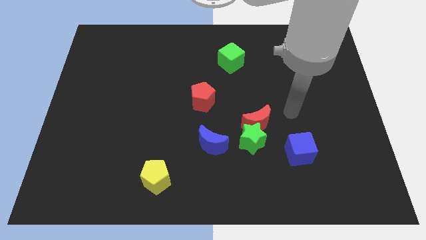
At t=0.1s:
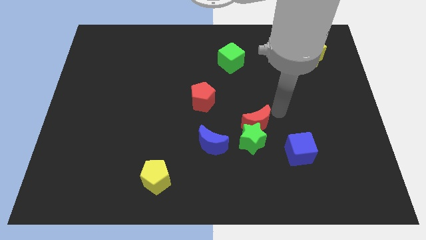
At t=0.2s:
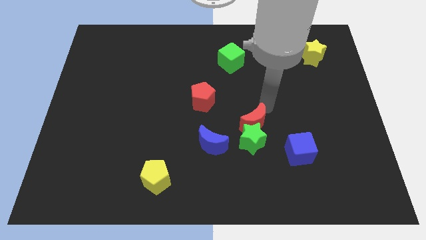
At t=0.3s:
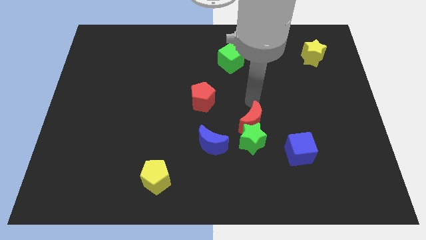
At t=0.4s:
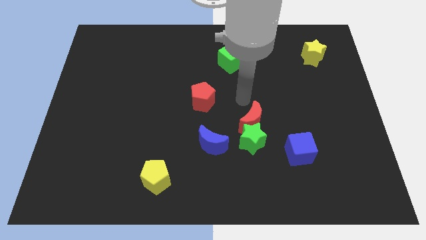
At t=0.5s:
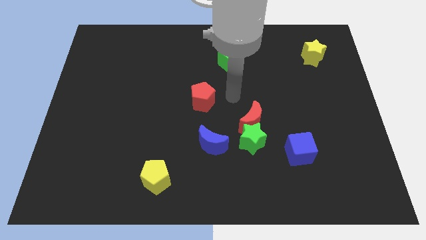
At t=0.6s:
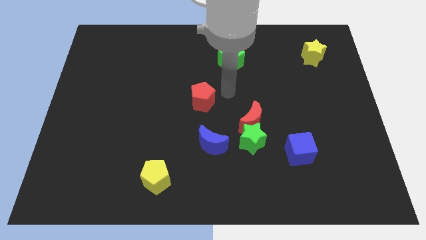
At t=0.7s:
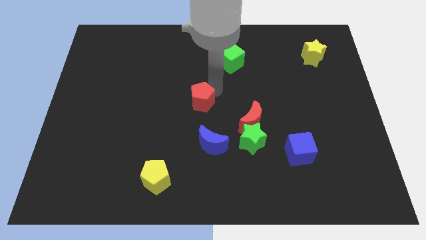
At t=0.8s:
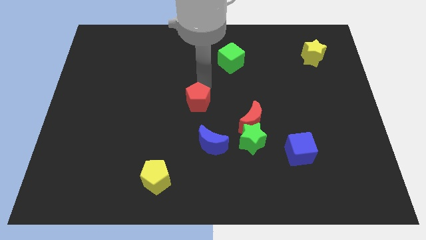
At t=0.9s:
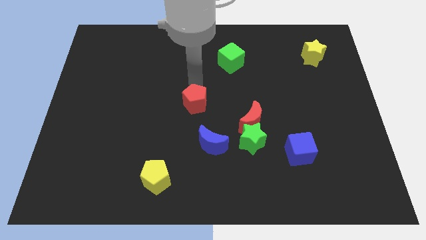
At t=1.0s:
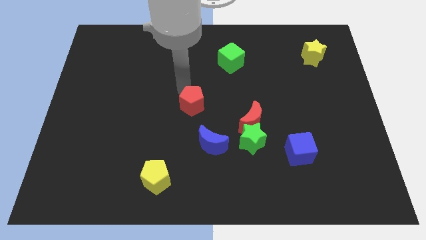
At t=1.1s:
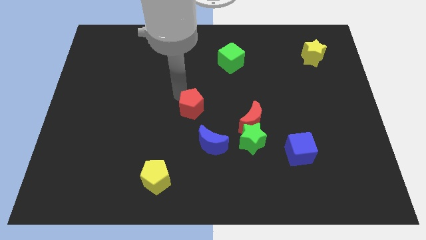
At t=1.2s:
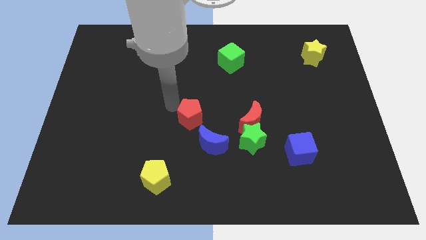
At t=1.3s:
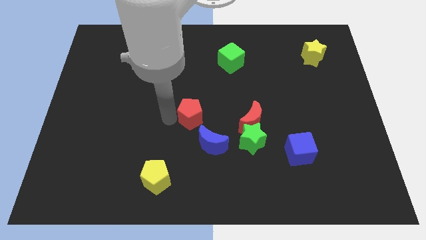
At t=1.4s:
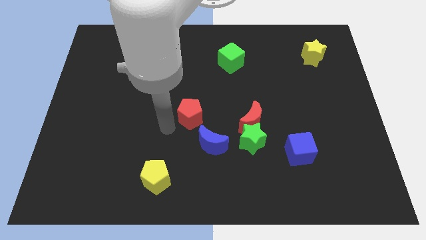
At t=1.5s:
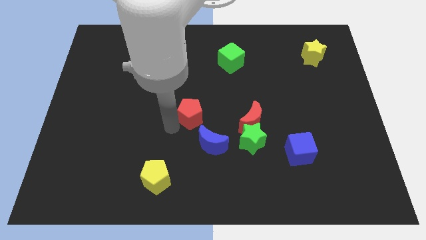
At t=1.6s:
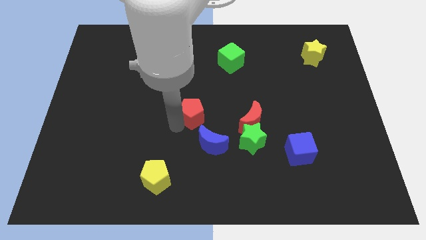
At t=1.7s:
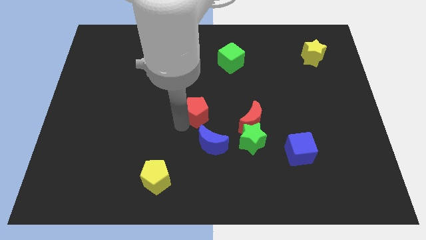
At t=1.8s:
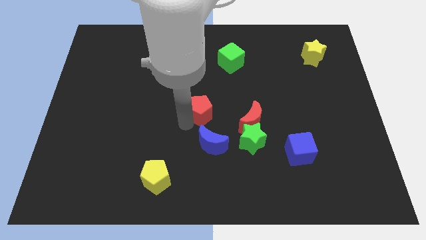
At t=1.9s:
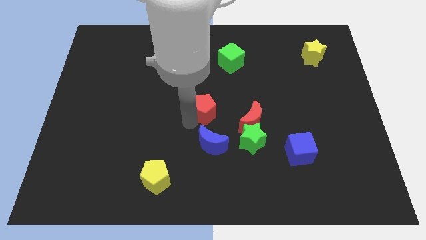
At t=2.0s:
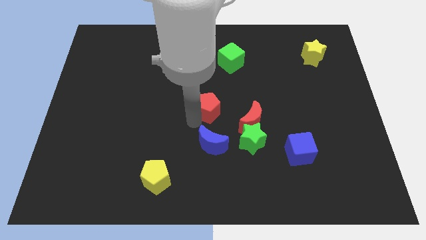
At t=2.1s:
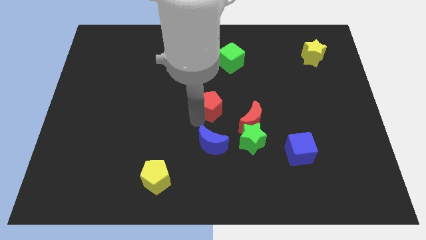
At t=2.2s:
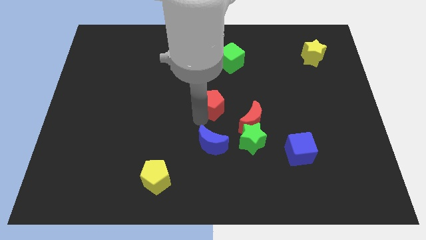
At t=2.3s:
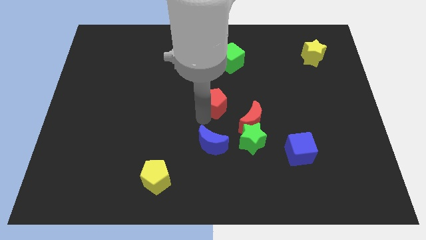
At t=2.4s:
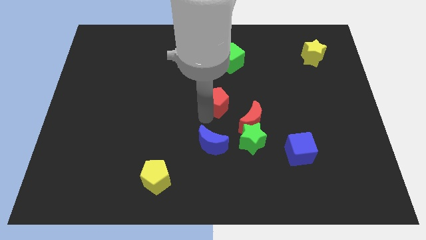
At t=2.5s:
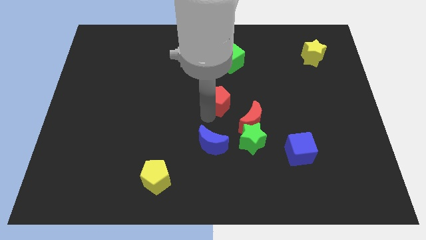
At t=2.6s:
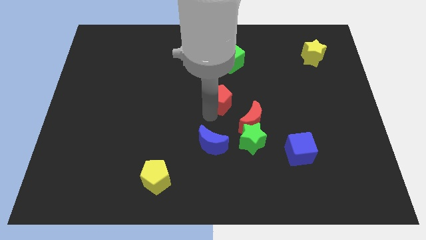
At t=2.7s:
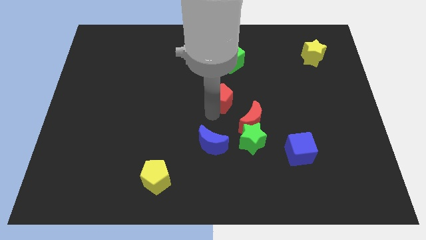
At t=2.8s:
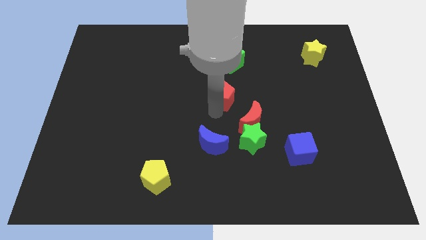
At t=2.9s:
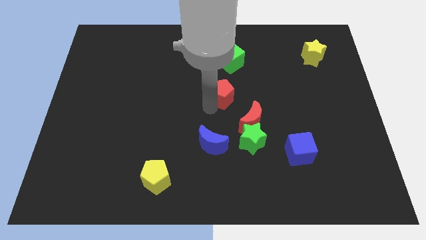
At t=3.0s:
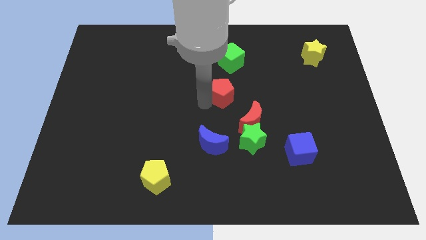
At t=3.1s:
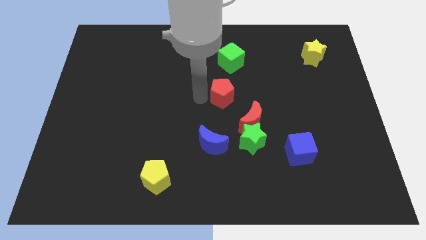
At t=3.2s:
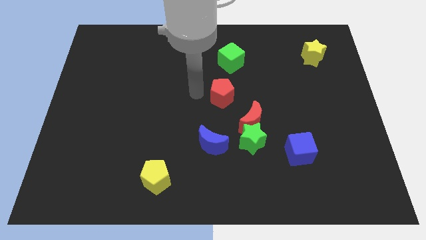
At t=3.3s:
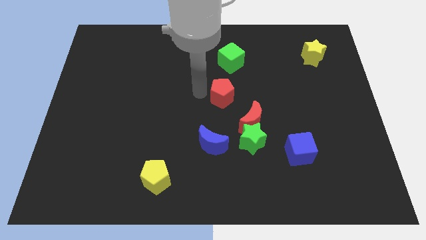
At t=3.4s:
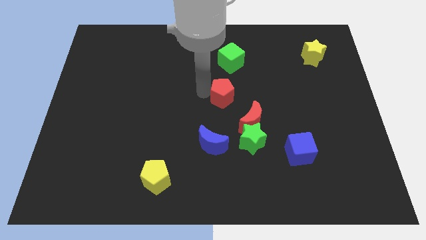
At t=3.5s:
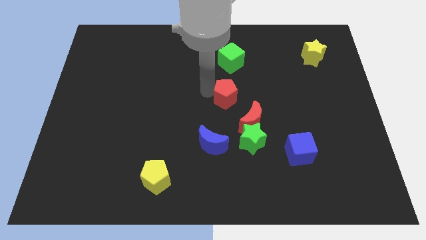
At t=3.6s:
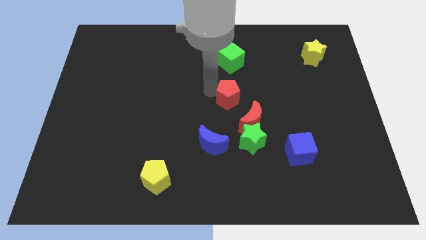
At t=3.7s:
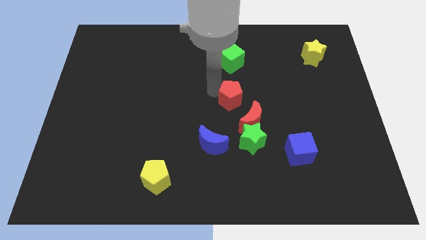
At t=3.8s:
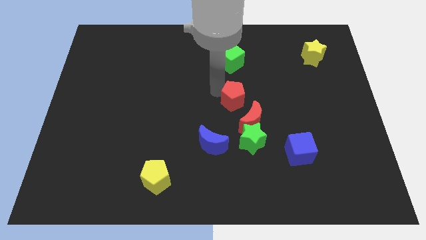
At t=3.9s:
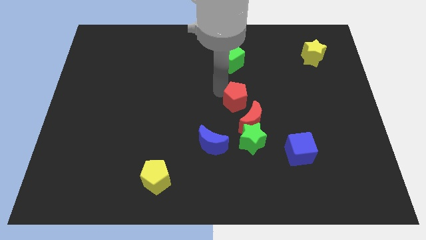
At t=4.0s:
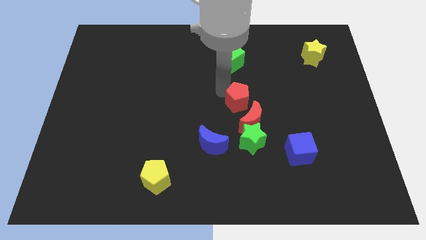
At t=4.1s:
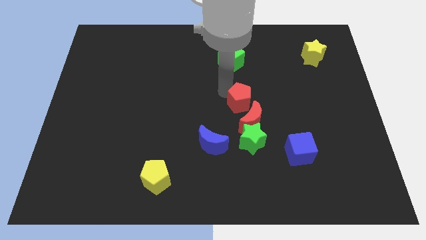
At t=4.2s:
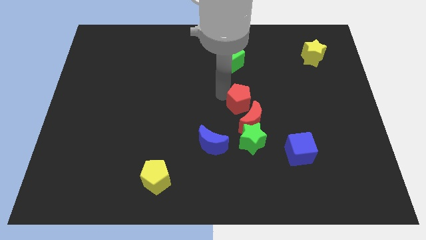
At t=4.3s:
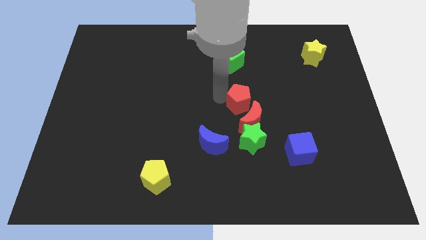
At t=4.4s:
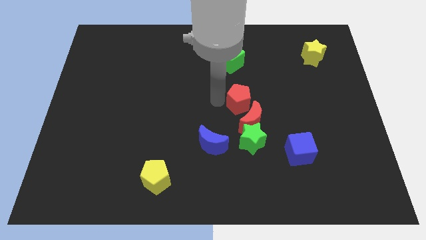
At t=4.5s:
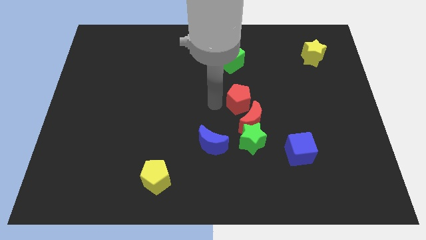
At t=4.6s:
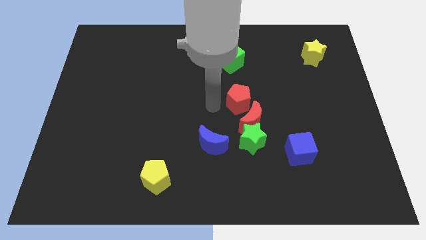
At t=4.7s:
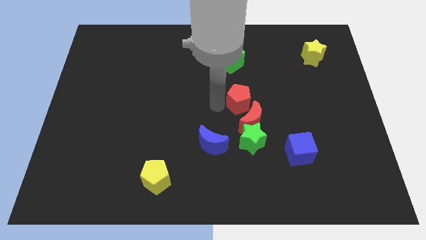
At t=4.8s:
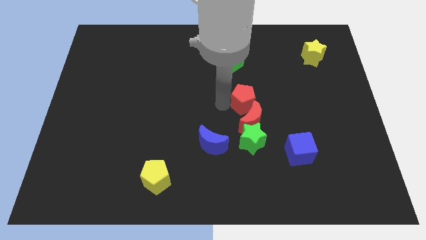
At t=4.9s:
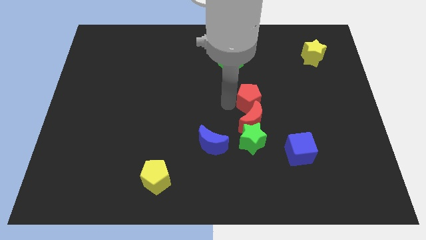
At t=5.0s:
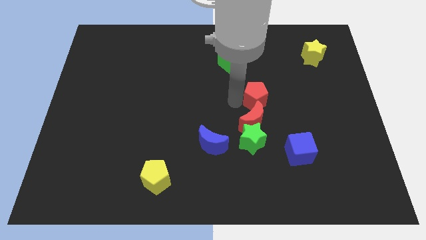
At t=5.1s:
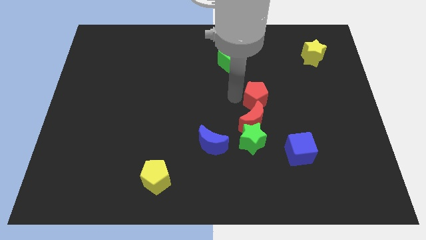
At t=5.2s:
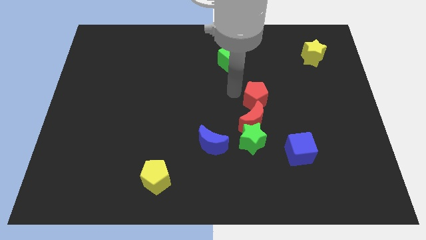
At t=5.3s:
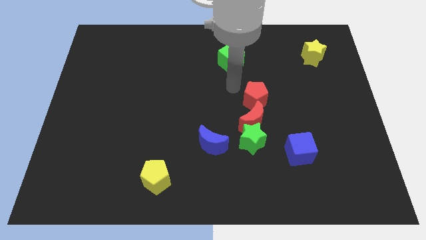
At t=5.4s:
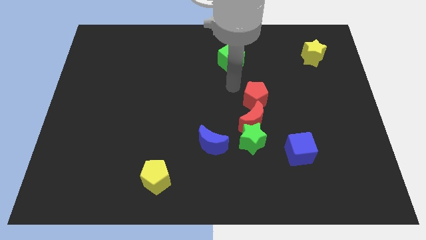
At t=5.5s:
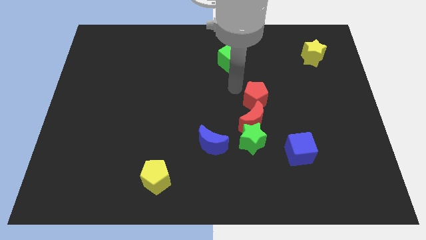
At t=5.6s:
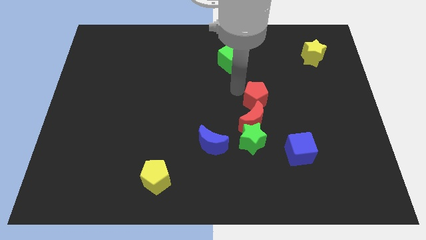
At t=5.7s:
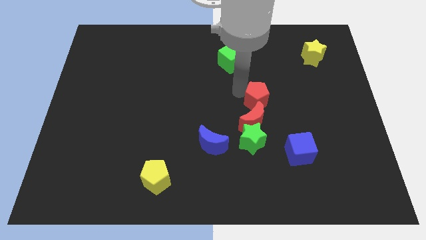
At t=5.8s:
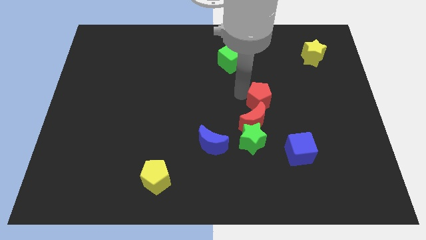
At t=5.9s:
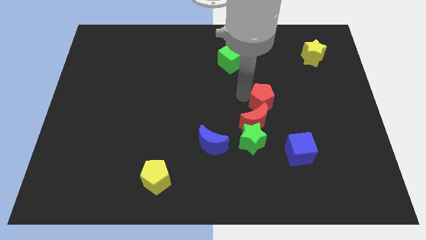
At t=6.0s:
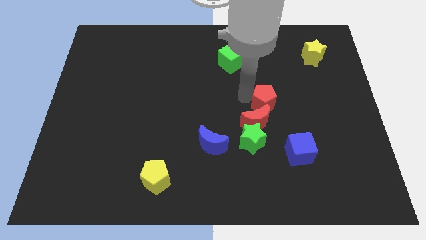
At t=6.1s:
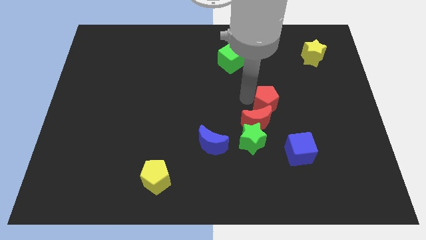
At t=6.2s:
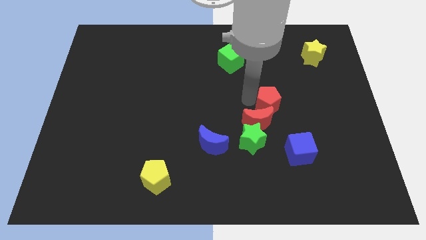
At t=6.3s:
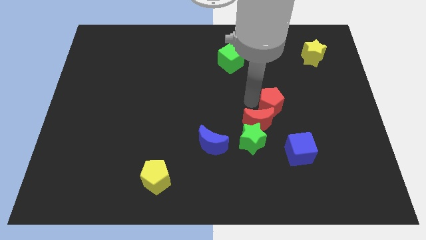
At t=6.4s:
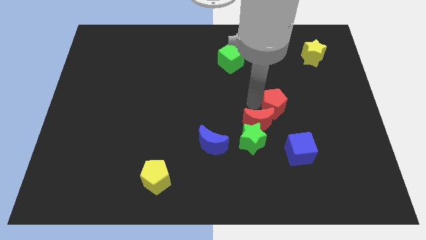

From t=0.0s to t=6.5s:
push the red pentagon above the blue cube

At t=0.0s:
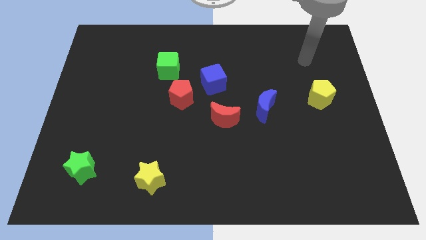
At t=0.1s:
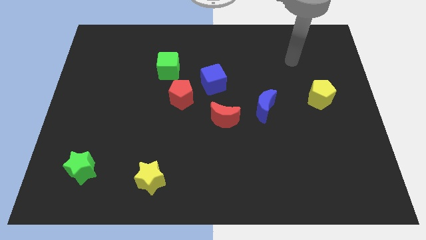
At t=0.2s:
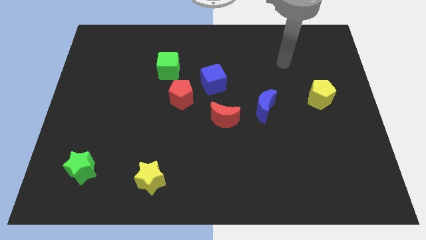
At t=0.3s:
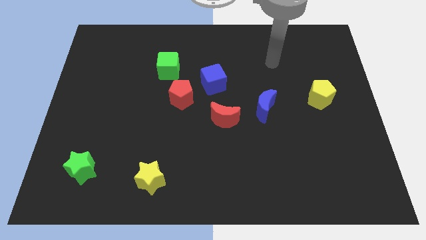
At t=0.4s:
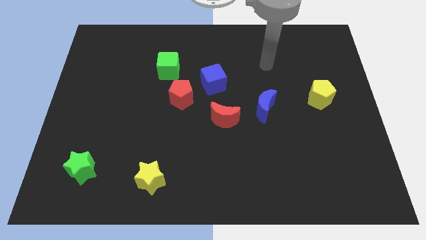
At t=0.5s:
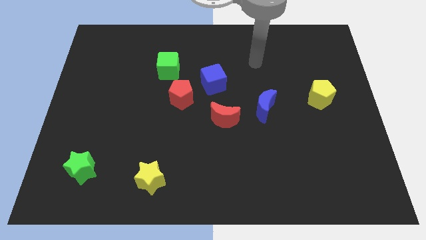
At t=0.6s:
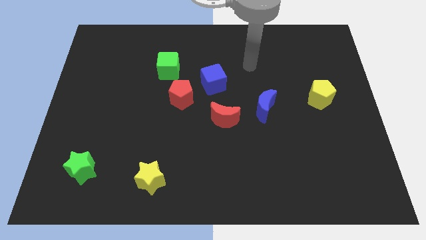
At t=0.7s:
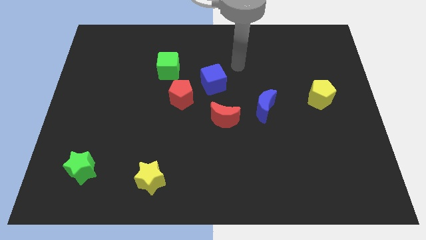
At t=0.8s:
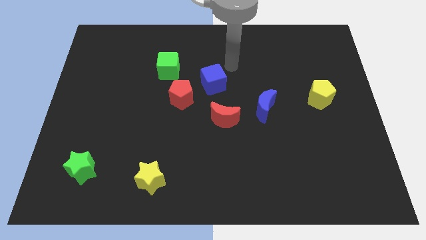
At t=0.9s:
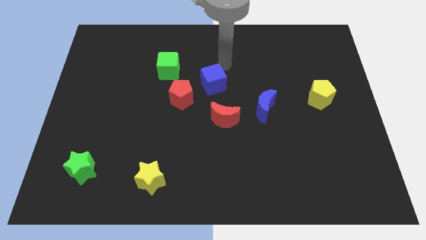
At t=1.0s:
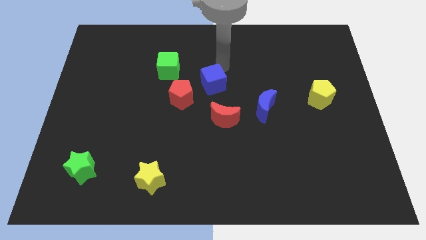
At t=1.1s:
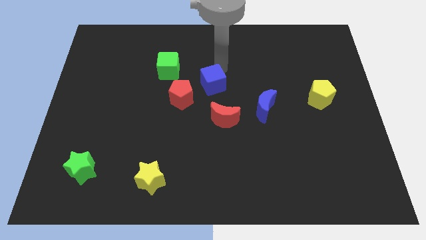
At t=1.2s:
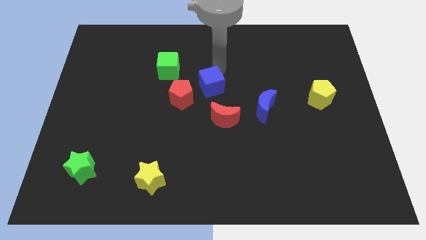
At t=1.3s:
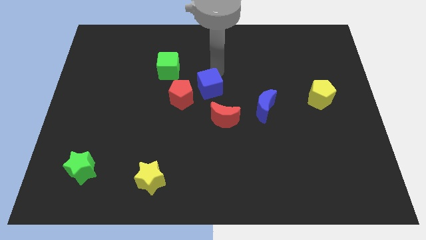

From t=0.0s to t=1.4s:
slide the blue cube diagonally up and to the left of the red moon
